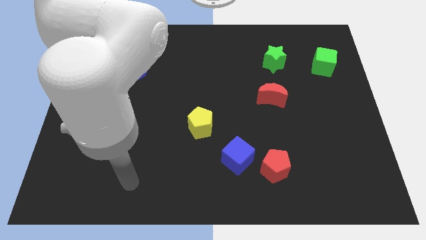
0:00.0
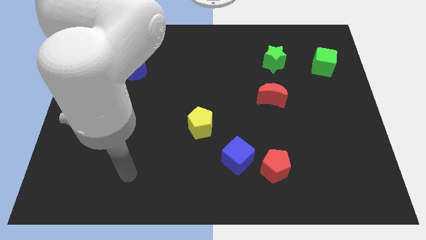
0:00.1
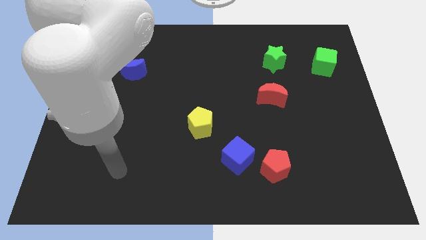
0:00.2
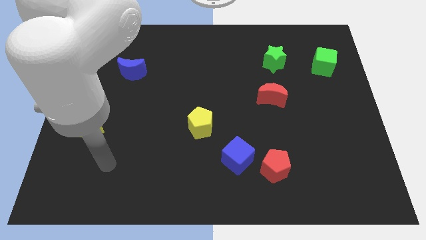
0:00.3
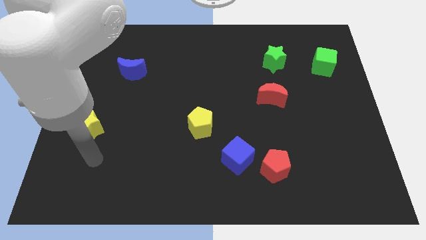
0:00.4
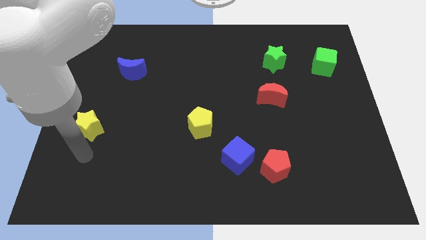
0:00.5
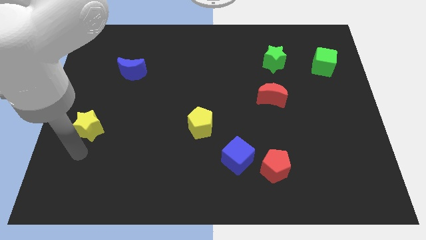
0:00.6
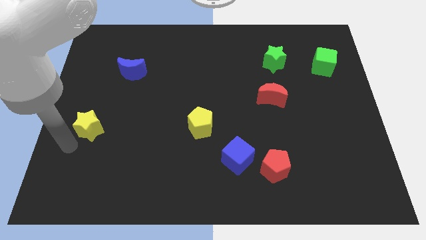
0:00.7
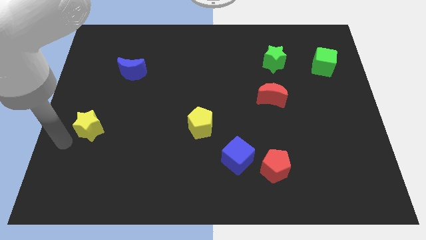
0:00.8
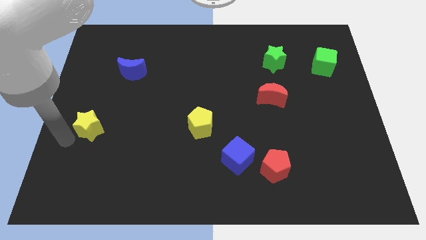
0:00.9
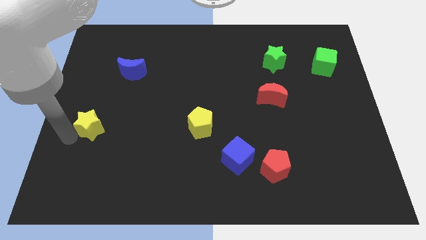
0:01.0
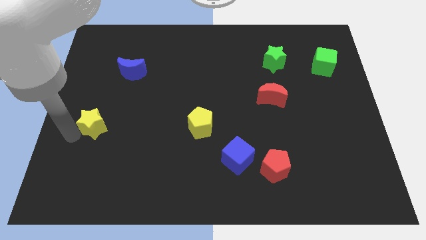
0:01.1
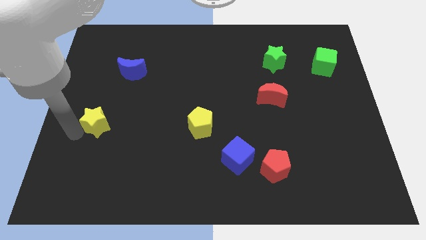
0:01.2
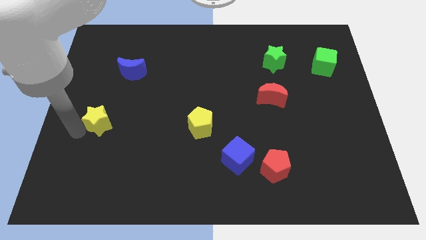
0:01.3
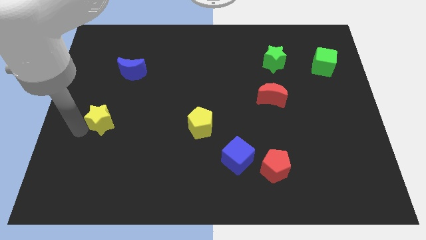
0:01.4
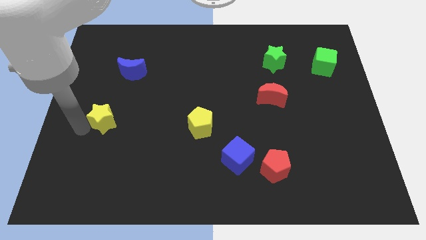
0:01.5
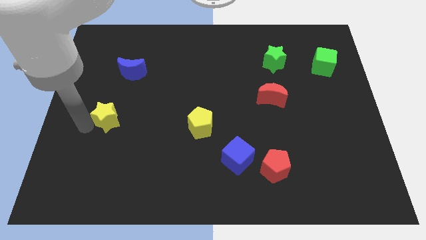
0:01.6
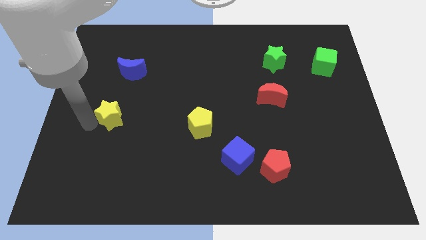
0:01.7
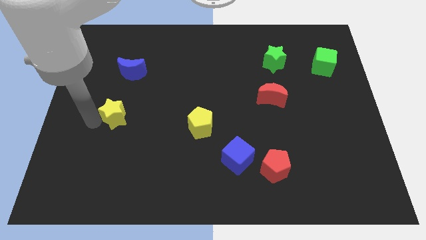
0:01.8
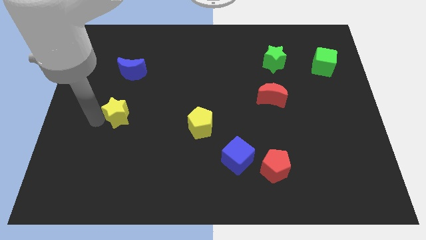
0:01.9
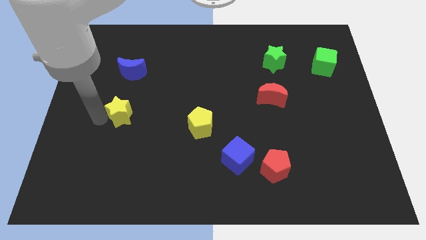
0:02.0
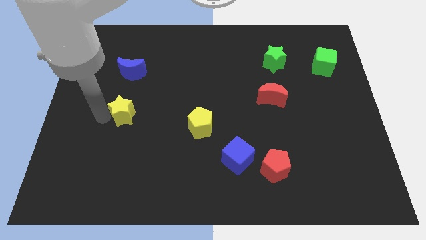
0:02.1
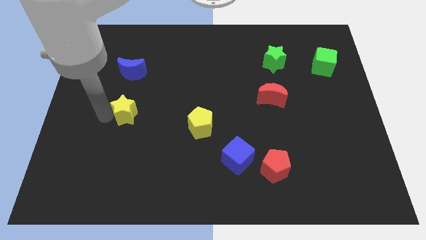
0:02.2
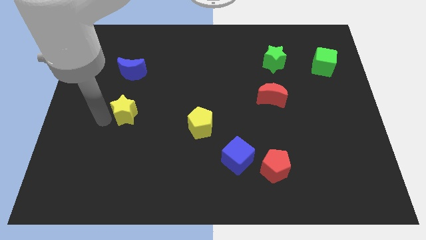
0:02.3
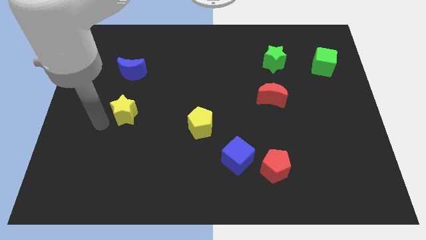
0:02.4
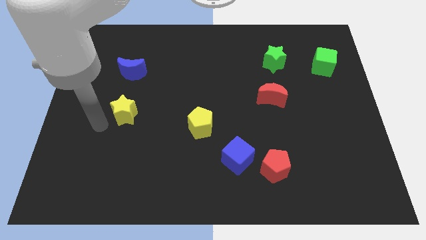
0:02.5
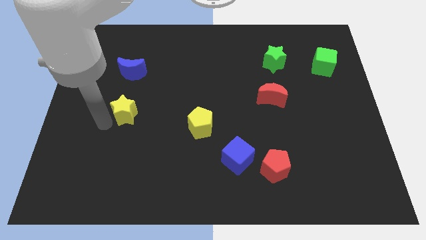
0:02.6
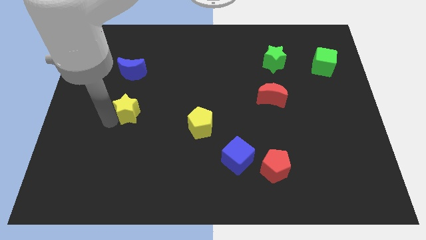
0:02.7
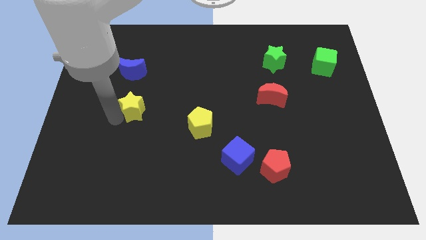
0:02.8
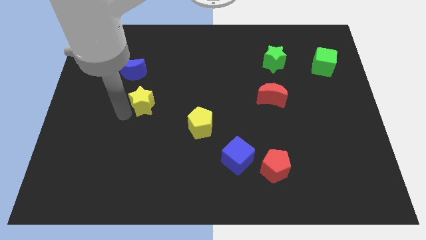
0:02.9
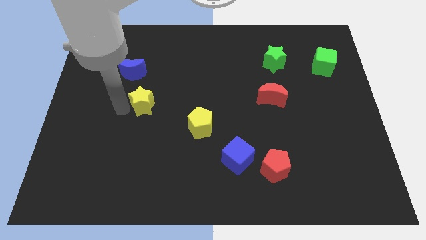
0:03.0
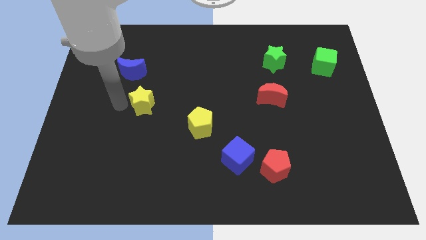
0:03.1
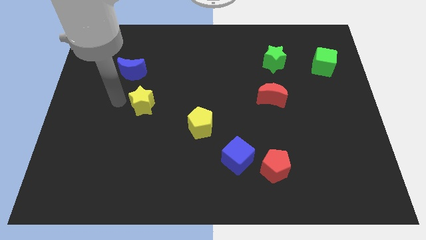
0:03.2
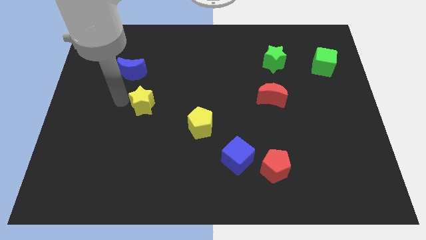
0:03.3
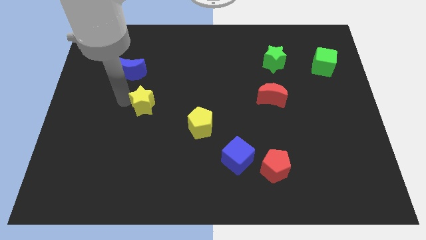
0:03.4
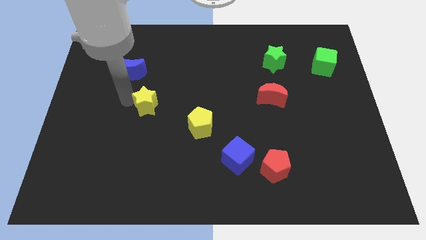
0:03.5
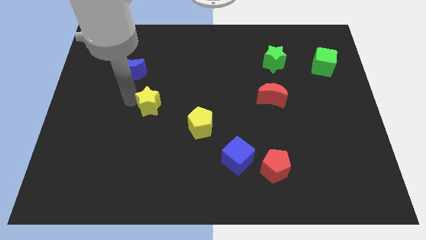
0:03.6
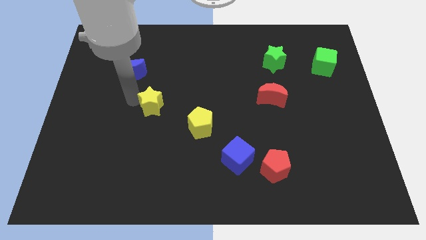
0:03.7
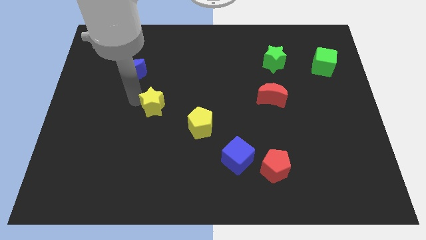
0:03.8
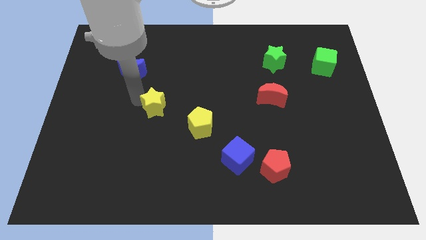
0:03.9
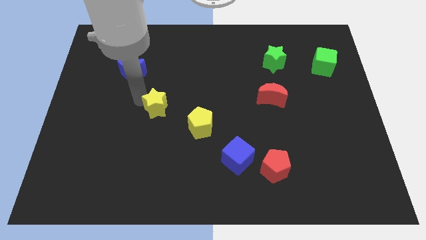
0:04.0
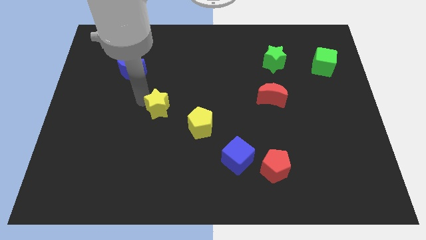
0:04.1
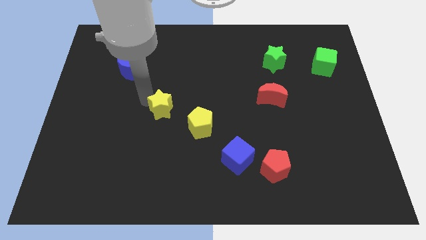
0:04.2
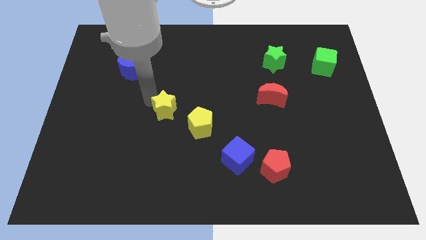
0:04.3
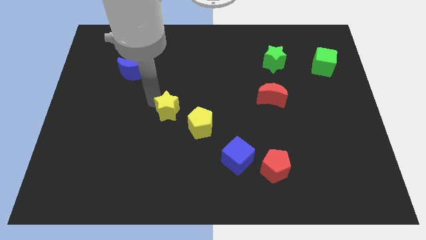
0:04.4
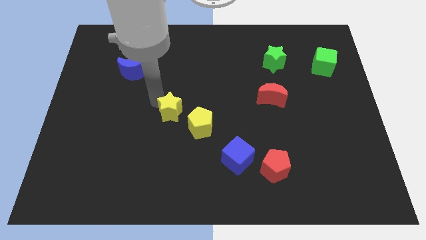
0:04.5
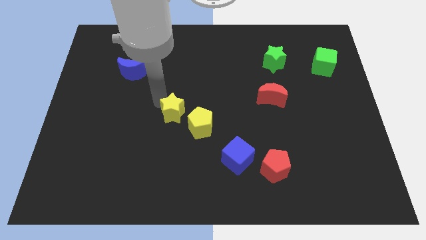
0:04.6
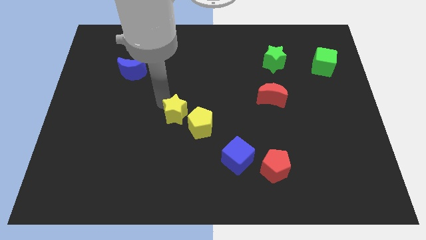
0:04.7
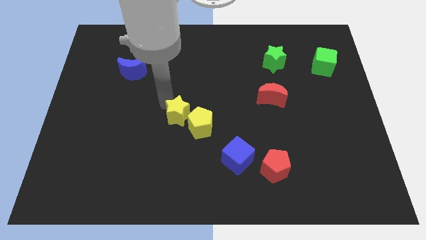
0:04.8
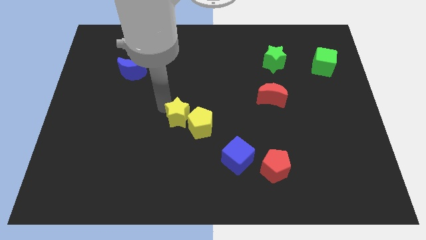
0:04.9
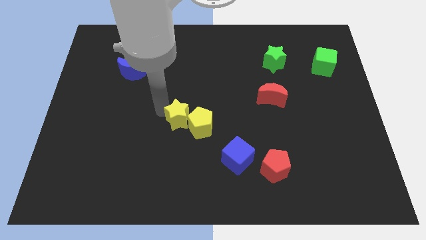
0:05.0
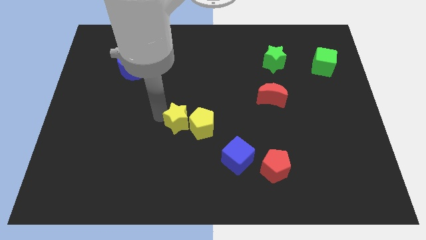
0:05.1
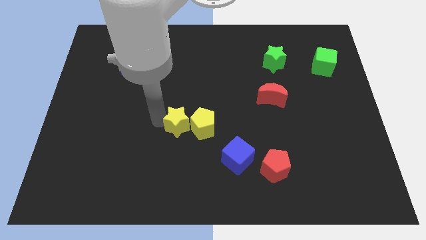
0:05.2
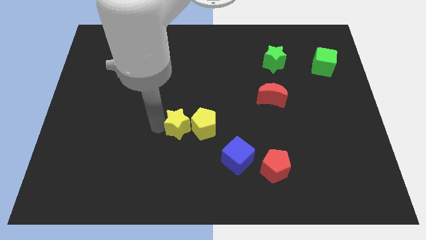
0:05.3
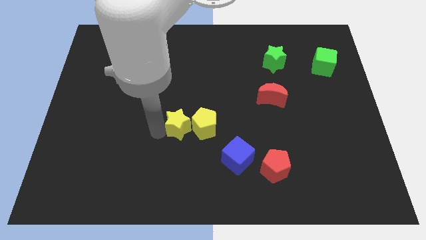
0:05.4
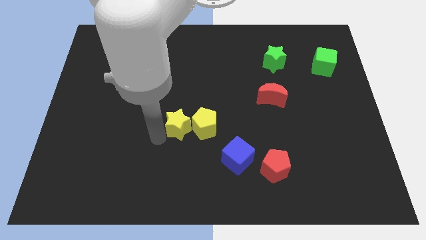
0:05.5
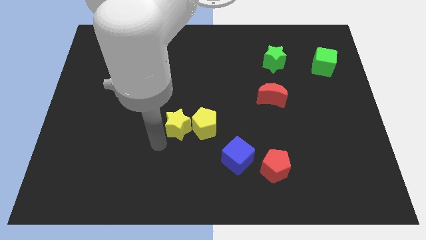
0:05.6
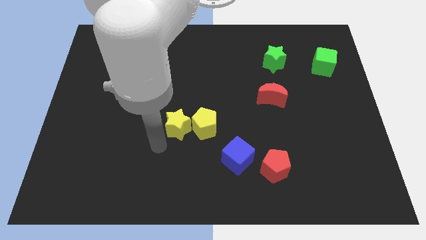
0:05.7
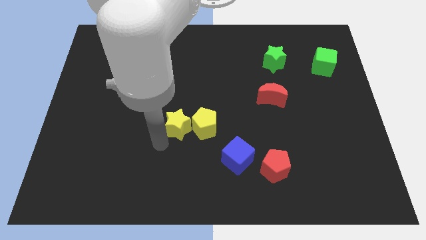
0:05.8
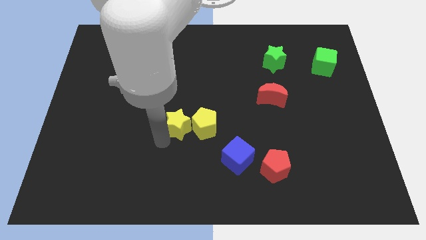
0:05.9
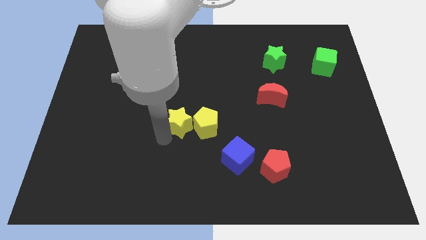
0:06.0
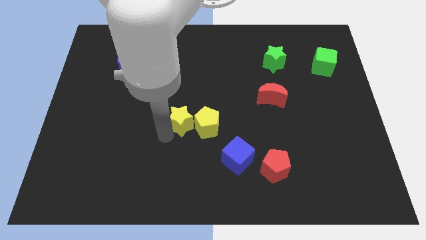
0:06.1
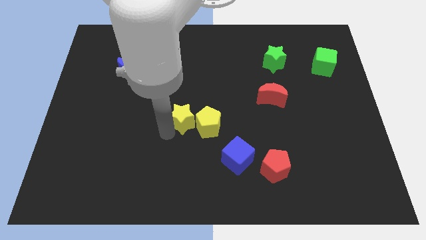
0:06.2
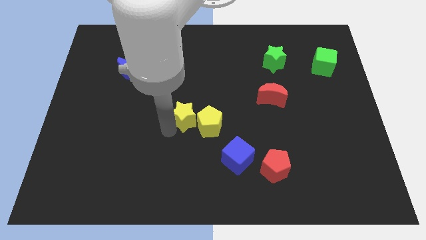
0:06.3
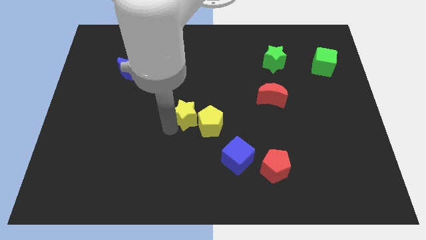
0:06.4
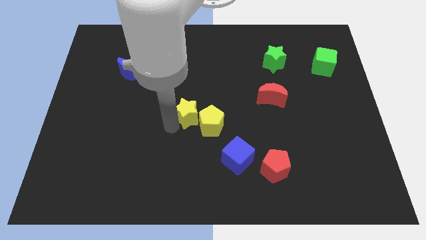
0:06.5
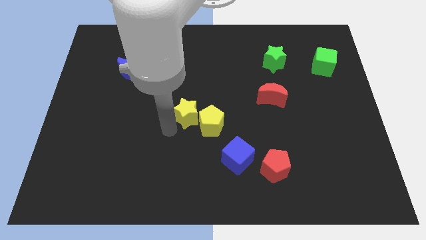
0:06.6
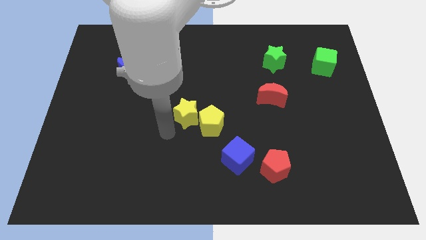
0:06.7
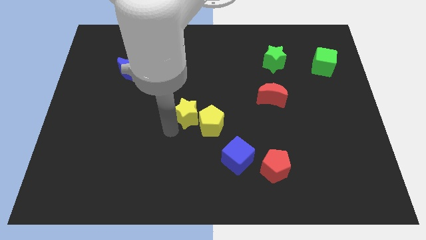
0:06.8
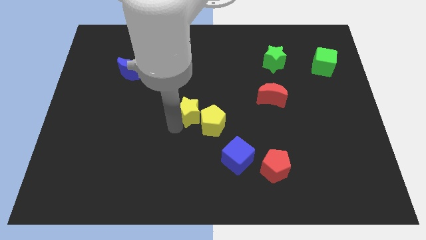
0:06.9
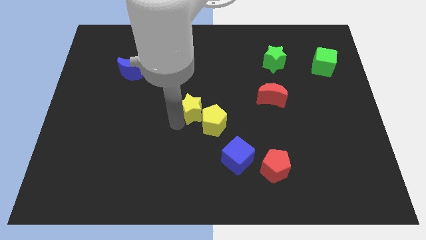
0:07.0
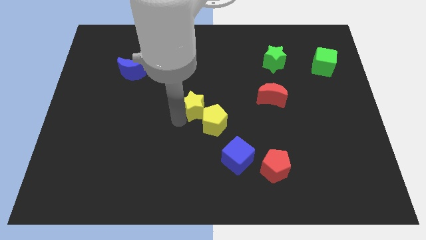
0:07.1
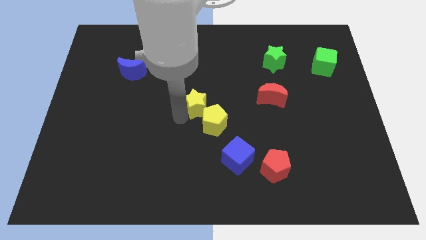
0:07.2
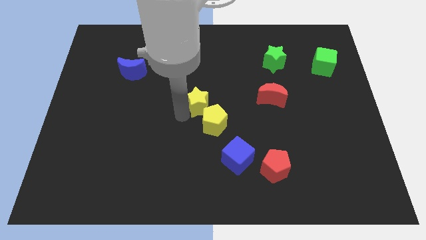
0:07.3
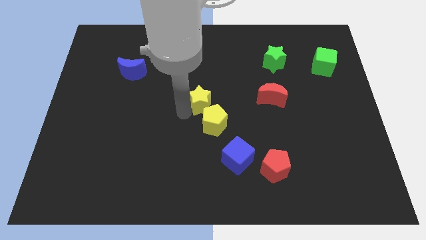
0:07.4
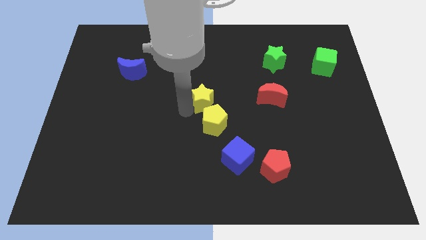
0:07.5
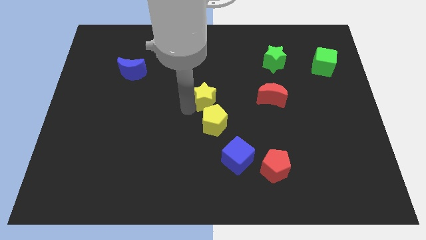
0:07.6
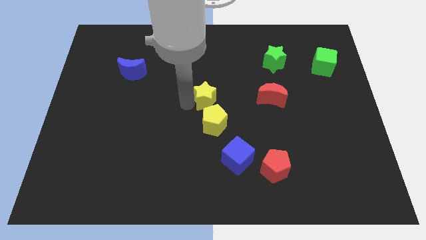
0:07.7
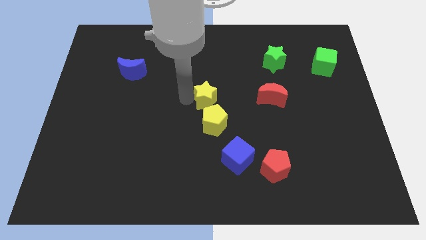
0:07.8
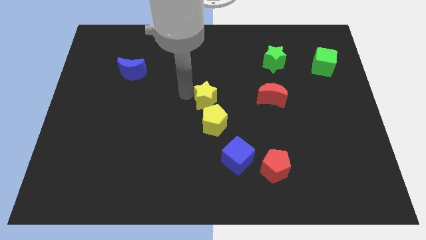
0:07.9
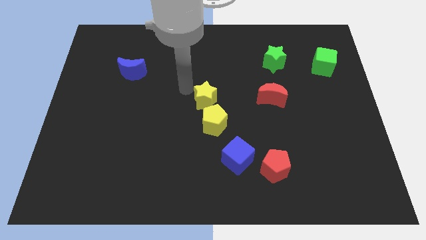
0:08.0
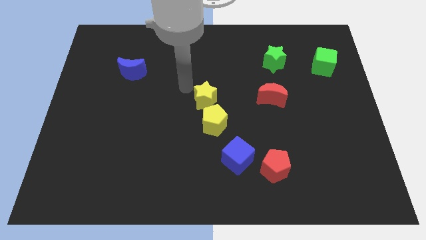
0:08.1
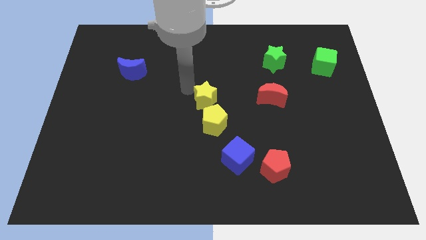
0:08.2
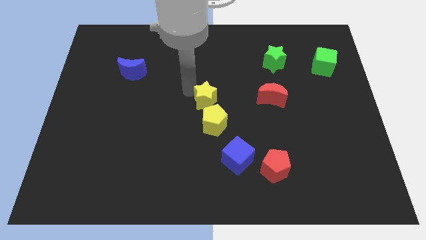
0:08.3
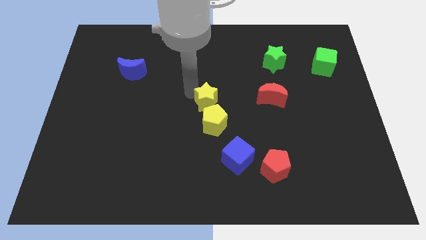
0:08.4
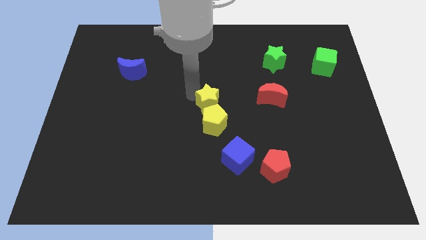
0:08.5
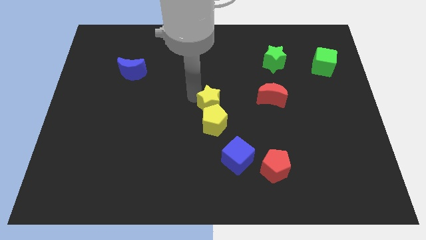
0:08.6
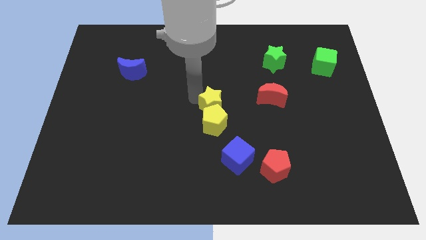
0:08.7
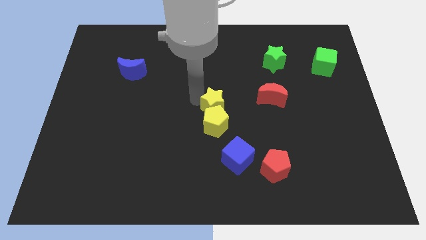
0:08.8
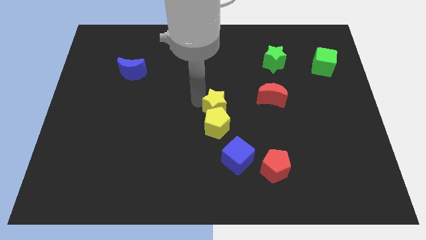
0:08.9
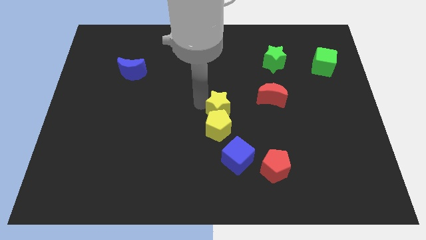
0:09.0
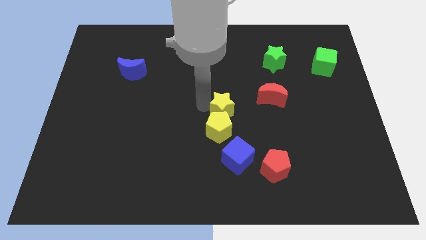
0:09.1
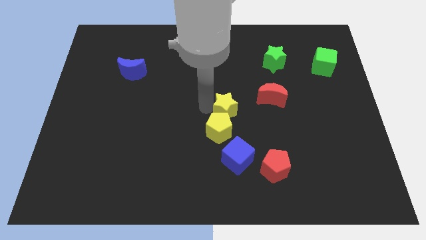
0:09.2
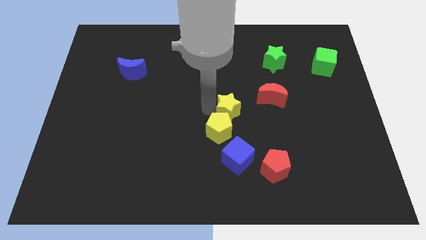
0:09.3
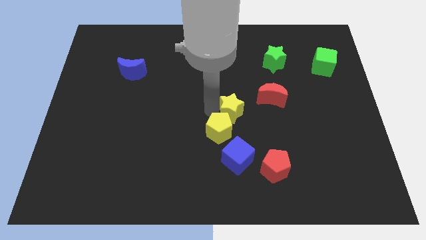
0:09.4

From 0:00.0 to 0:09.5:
put the yellow star to the bottom left of the red moon
